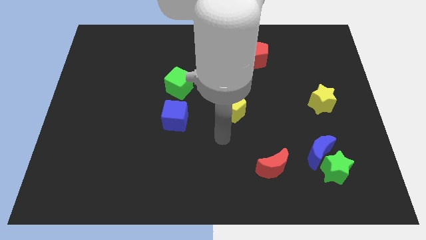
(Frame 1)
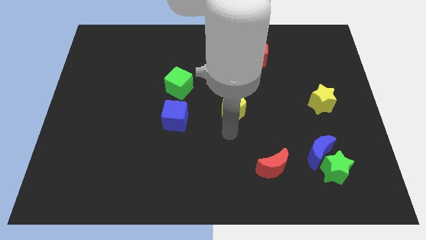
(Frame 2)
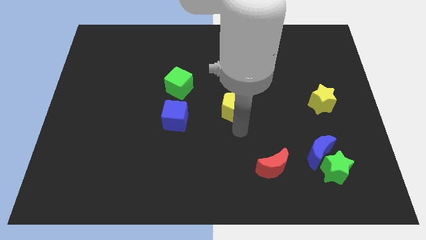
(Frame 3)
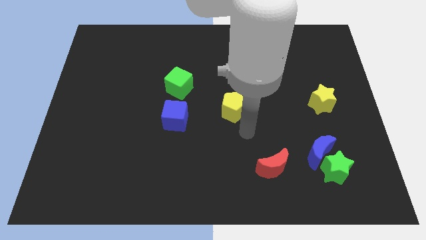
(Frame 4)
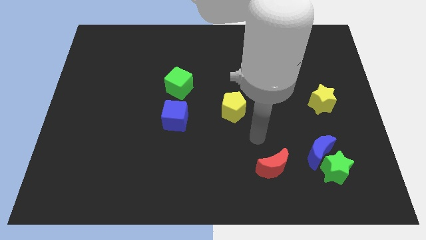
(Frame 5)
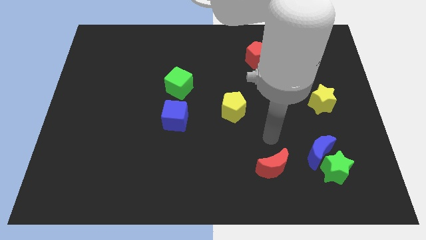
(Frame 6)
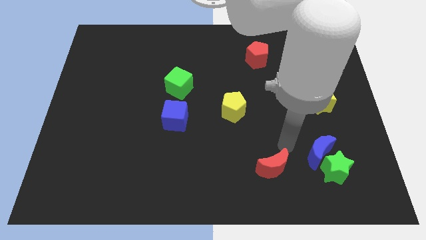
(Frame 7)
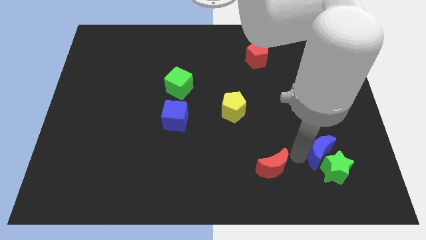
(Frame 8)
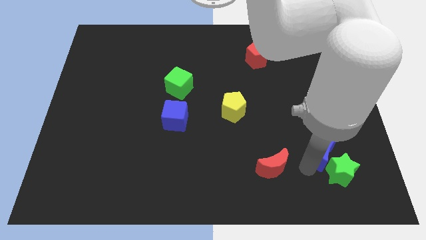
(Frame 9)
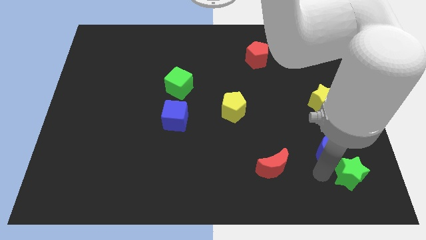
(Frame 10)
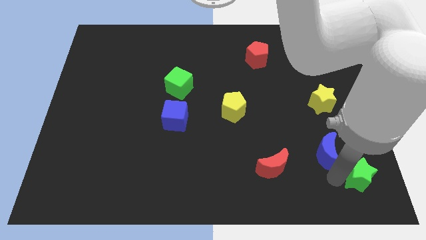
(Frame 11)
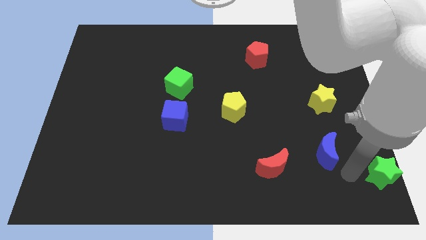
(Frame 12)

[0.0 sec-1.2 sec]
pull the blue moon apart from the green star

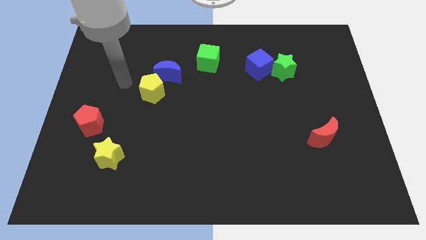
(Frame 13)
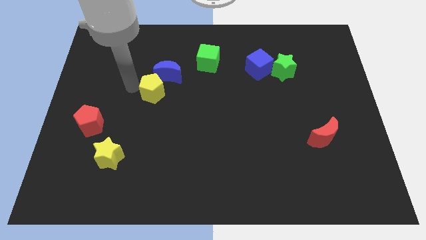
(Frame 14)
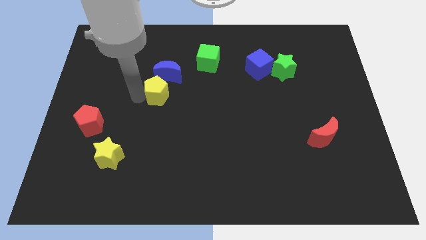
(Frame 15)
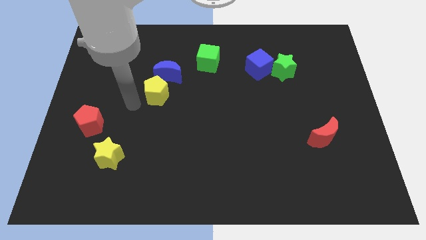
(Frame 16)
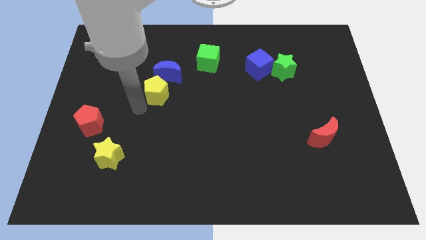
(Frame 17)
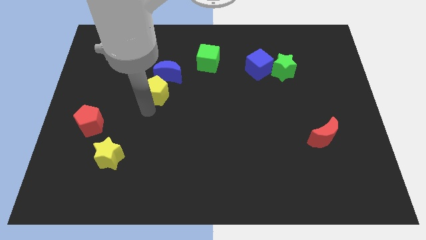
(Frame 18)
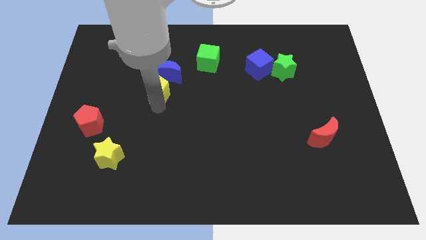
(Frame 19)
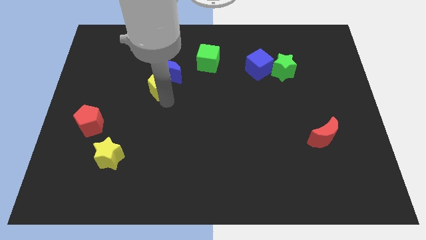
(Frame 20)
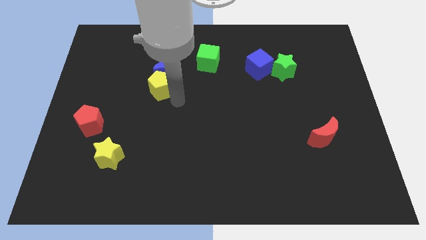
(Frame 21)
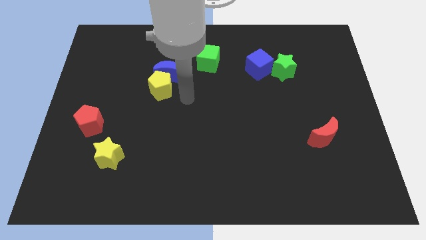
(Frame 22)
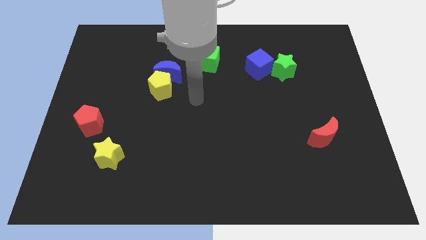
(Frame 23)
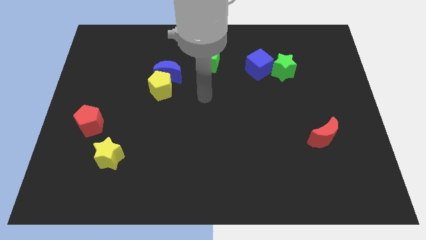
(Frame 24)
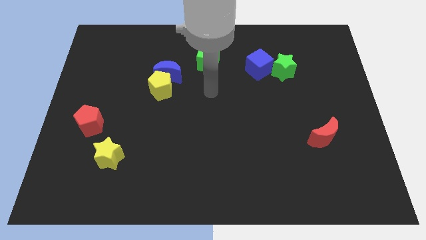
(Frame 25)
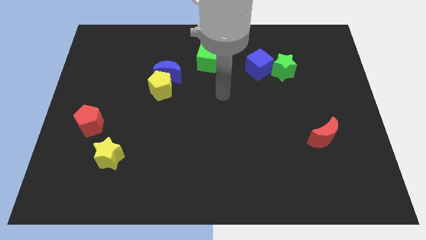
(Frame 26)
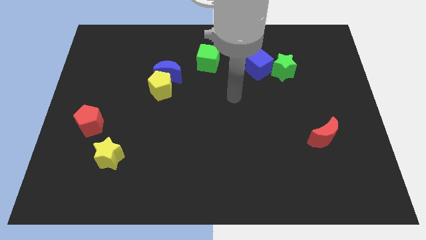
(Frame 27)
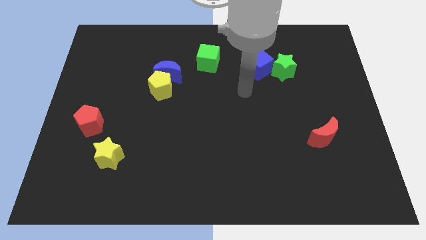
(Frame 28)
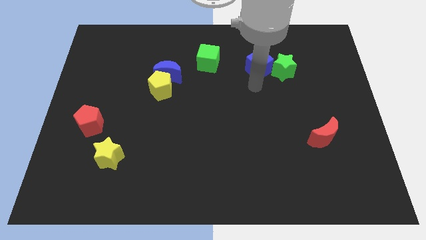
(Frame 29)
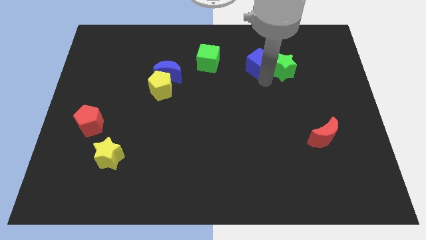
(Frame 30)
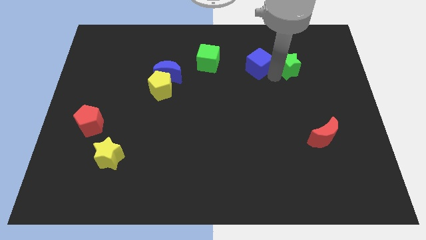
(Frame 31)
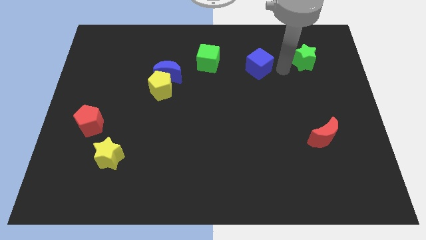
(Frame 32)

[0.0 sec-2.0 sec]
separate the blue cube from the green star

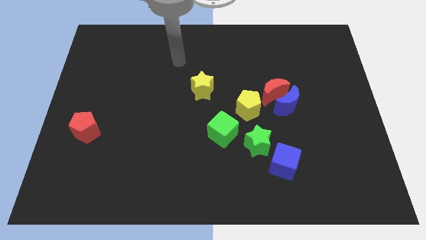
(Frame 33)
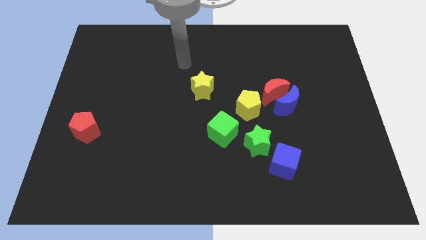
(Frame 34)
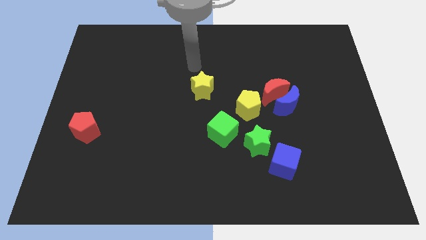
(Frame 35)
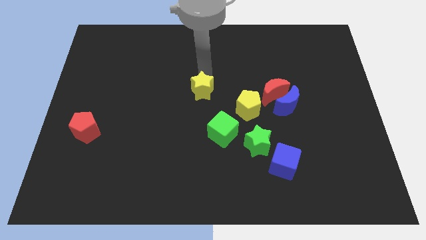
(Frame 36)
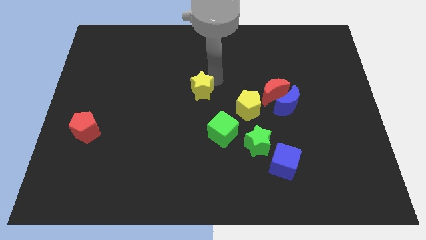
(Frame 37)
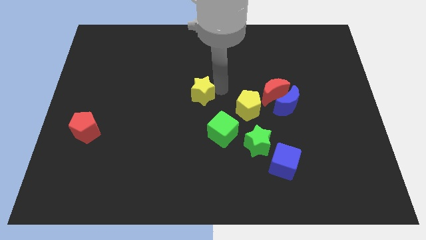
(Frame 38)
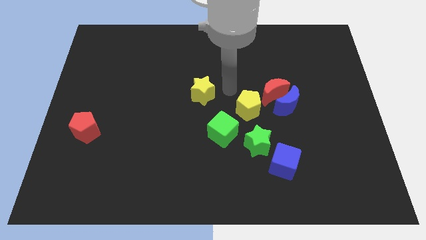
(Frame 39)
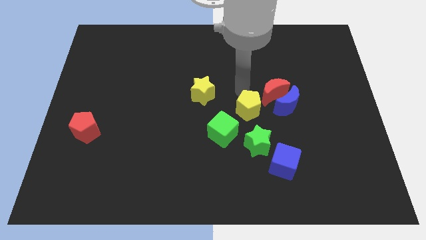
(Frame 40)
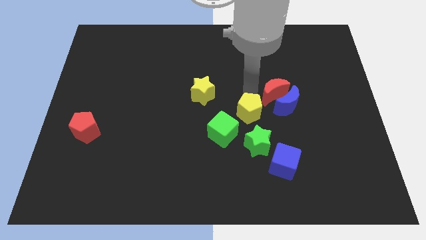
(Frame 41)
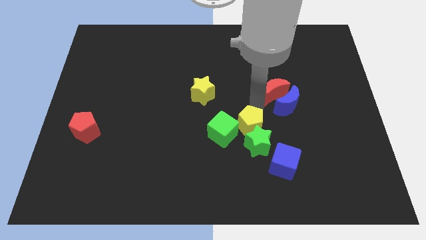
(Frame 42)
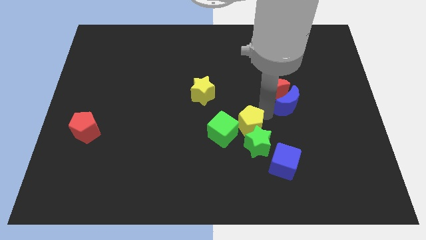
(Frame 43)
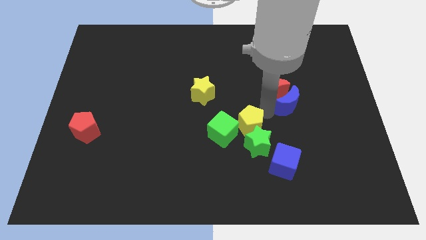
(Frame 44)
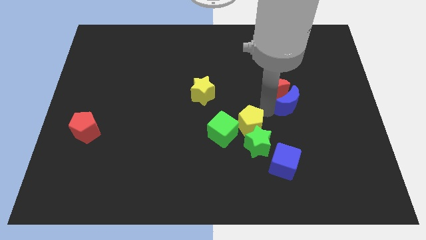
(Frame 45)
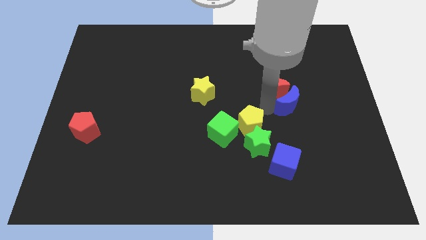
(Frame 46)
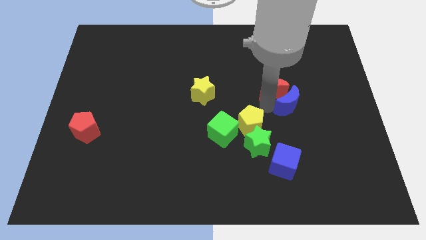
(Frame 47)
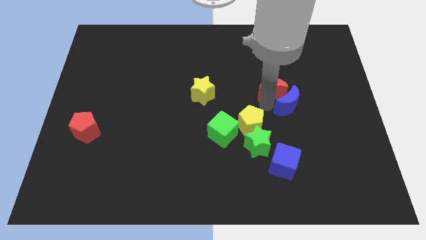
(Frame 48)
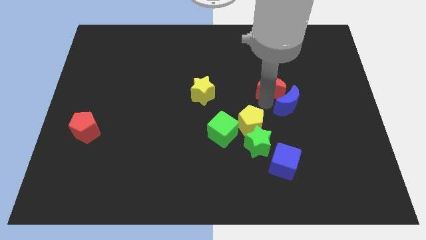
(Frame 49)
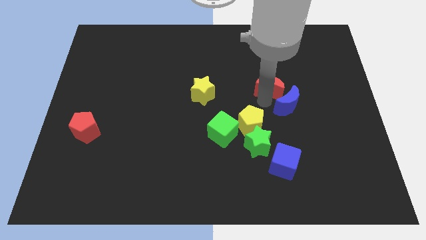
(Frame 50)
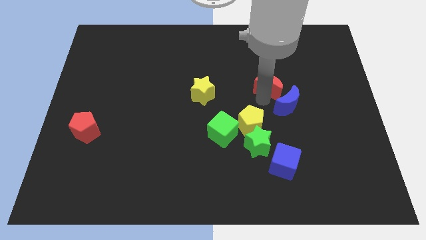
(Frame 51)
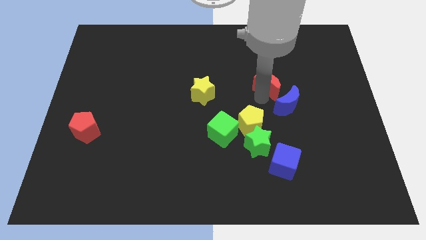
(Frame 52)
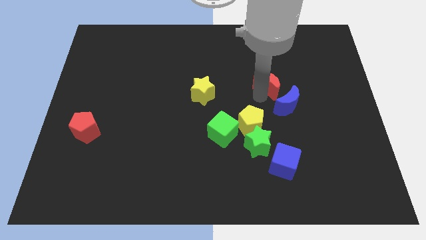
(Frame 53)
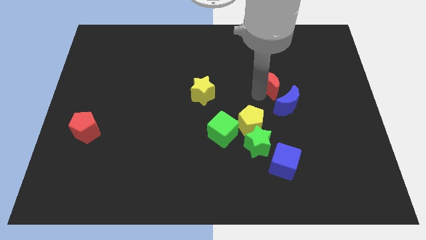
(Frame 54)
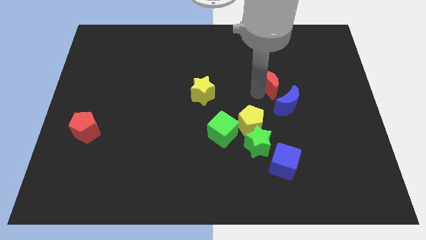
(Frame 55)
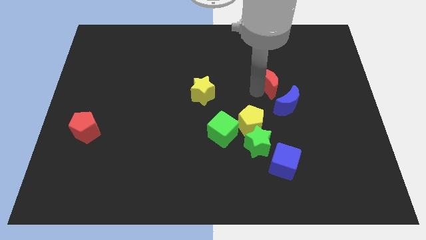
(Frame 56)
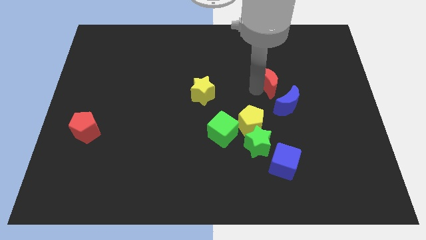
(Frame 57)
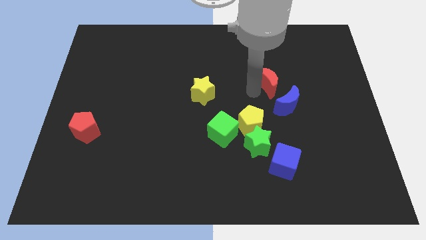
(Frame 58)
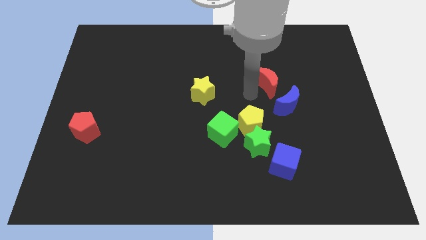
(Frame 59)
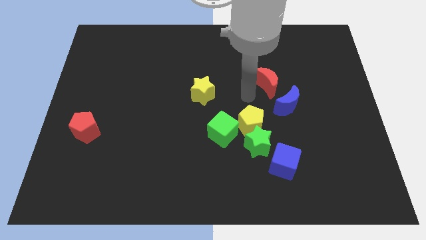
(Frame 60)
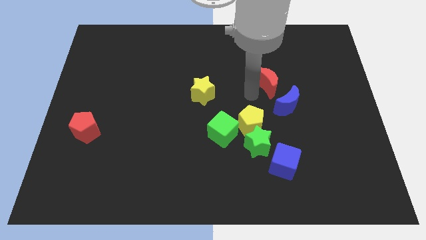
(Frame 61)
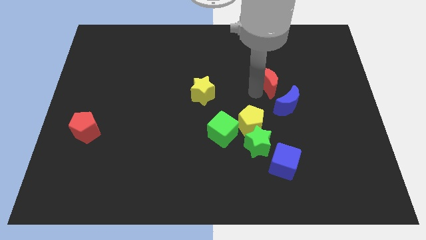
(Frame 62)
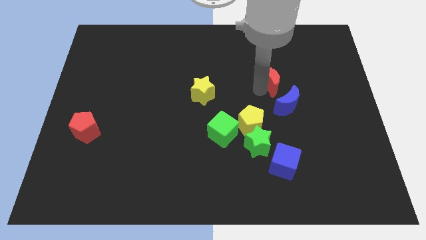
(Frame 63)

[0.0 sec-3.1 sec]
pull the red moon apart from the blue moon and yellow pentagon

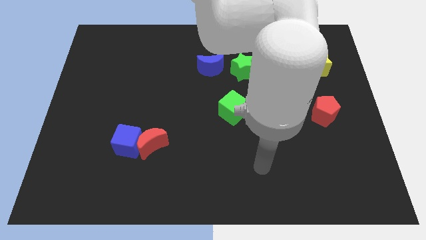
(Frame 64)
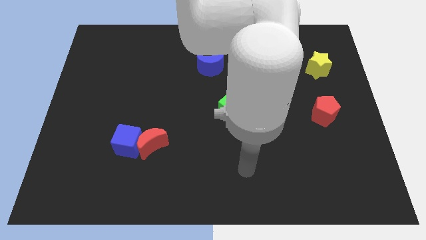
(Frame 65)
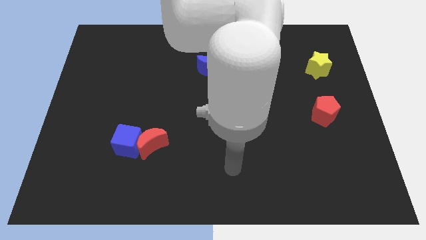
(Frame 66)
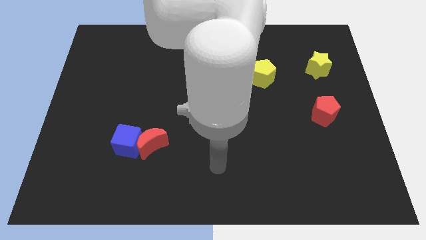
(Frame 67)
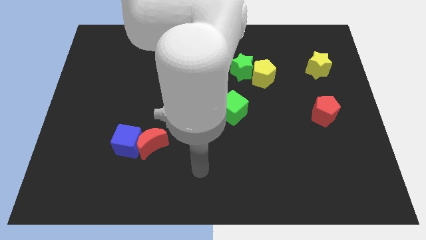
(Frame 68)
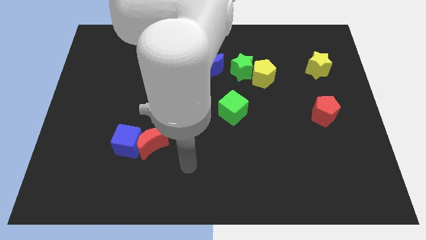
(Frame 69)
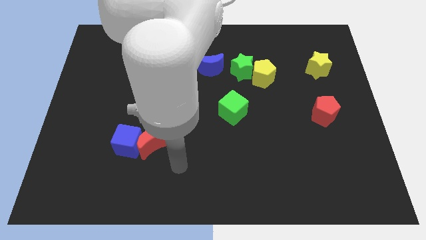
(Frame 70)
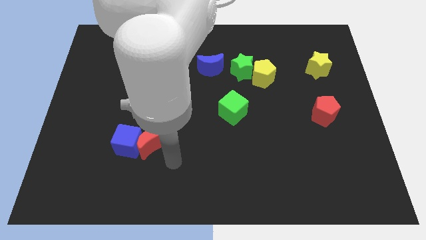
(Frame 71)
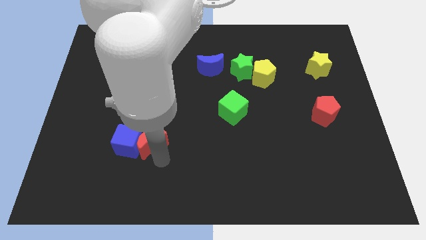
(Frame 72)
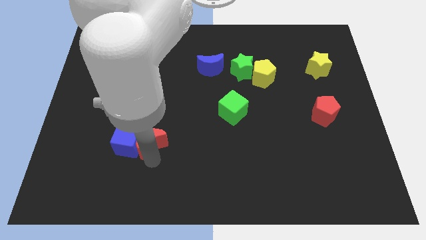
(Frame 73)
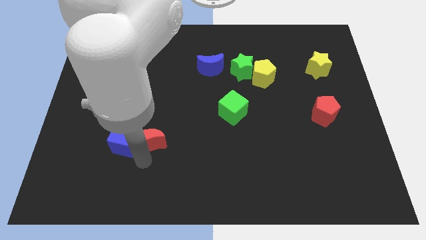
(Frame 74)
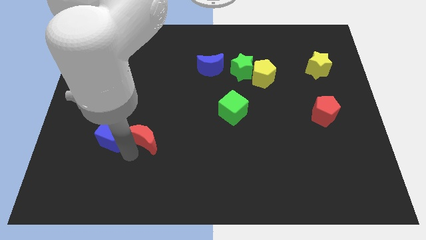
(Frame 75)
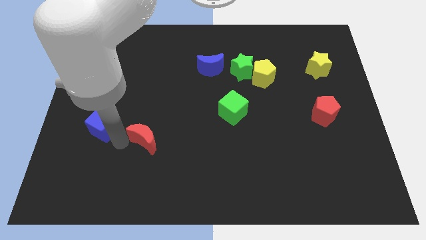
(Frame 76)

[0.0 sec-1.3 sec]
separate the red moon from the blue cube

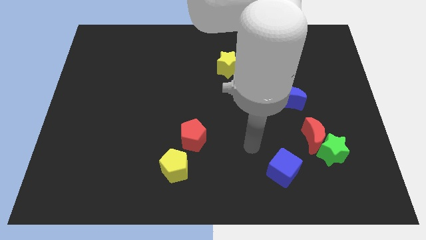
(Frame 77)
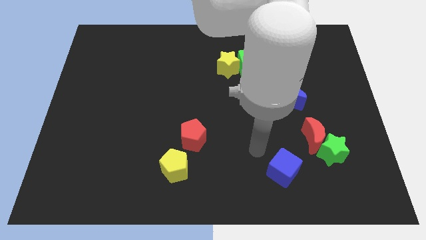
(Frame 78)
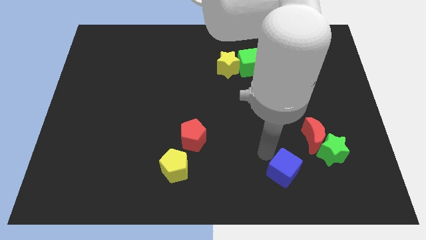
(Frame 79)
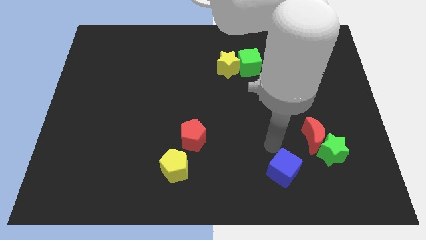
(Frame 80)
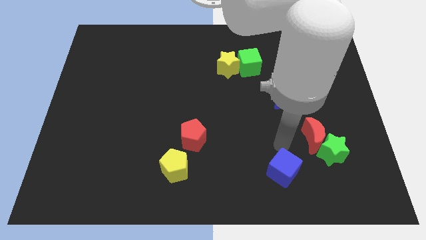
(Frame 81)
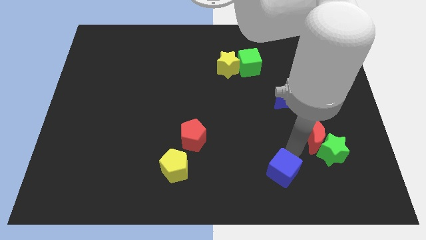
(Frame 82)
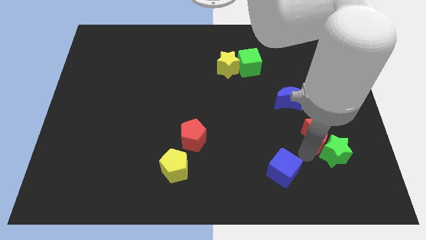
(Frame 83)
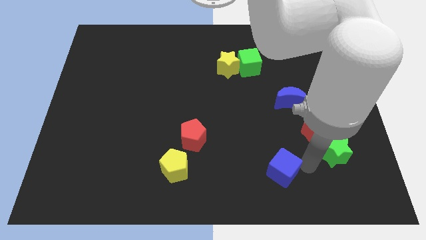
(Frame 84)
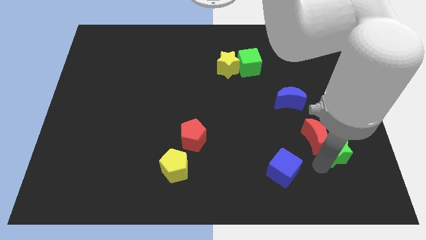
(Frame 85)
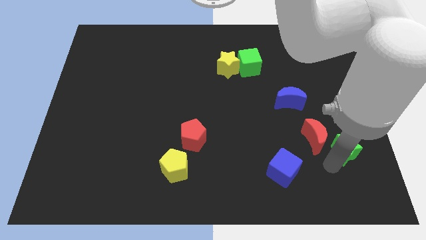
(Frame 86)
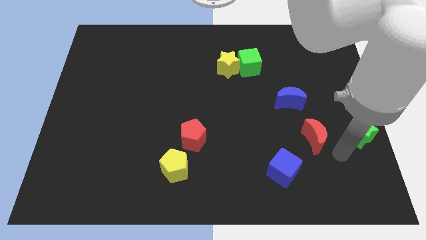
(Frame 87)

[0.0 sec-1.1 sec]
separate the red moon from the green star

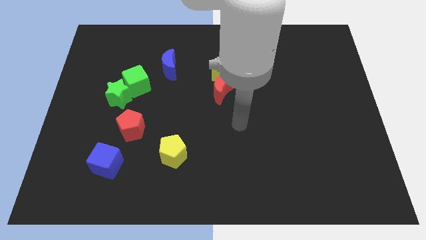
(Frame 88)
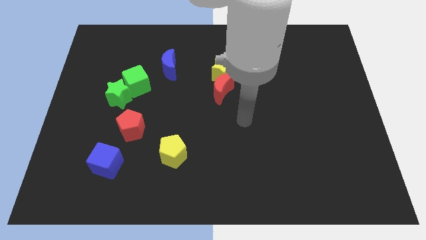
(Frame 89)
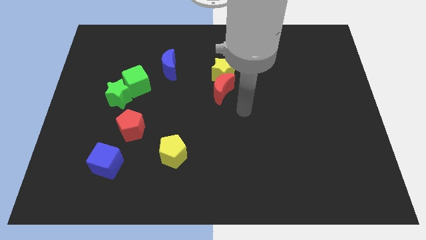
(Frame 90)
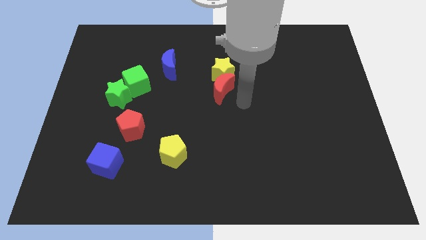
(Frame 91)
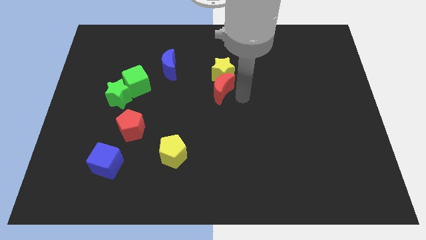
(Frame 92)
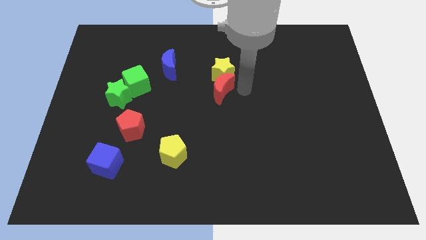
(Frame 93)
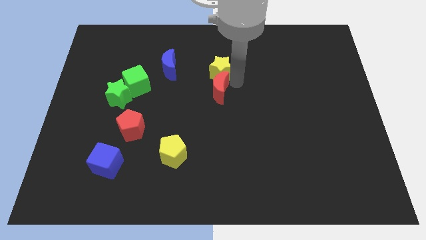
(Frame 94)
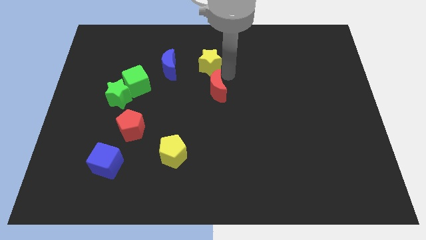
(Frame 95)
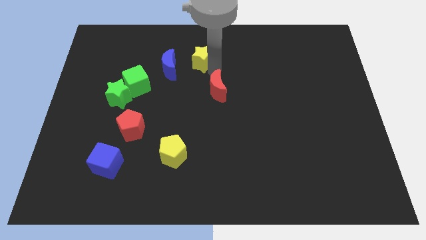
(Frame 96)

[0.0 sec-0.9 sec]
separate the red moon from the yellow star
